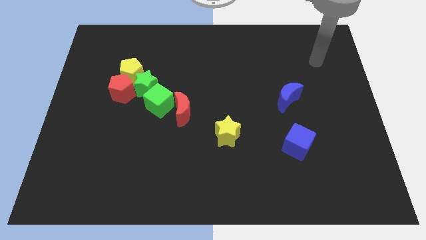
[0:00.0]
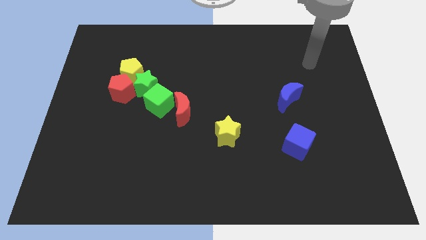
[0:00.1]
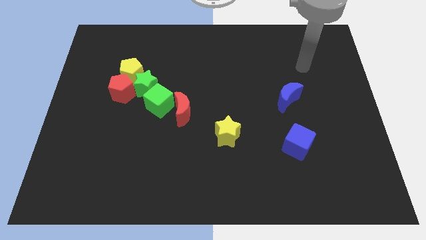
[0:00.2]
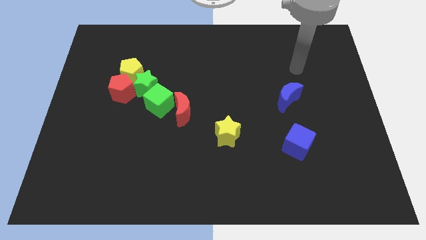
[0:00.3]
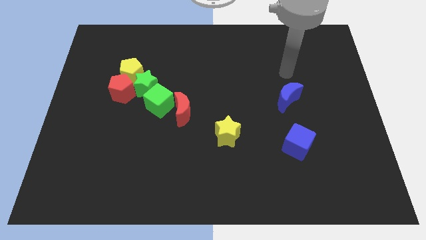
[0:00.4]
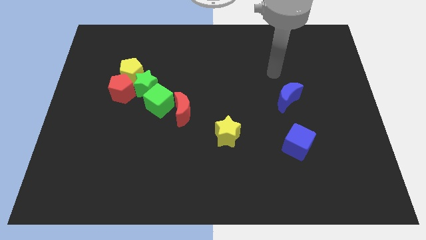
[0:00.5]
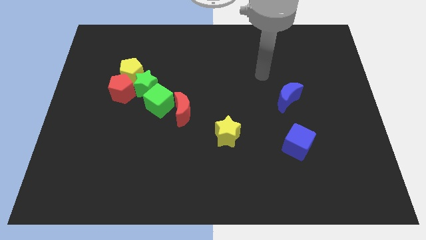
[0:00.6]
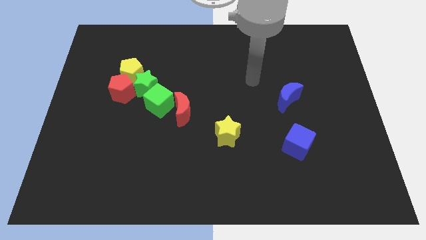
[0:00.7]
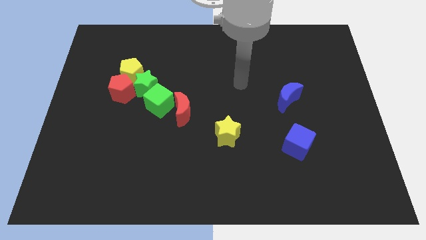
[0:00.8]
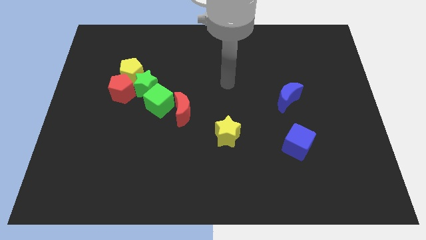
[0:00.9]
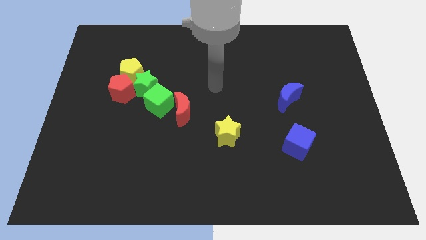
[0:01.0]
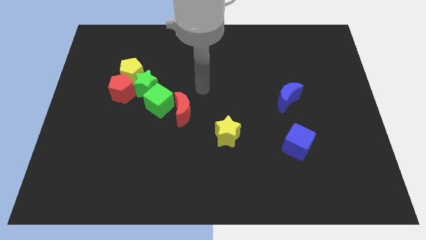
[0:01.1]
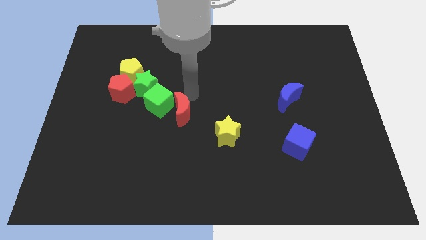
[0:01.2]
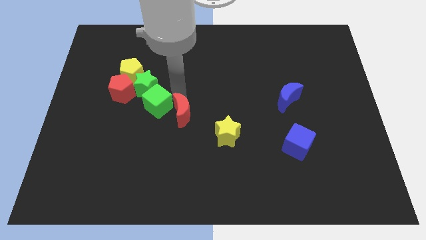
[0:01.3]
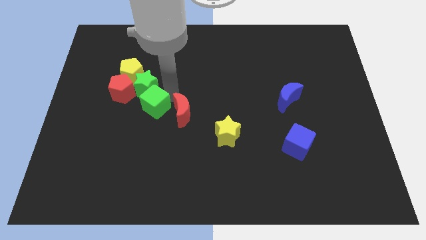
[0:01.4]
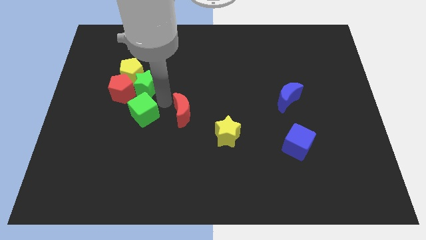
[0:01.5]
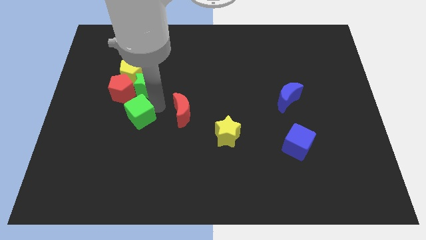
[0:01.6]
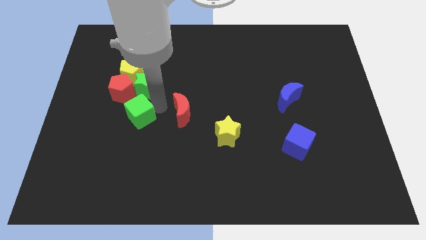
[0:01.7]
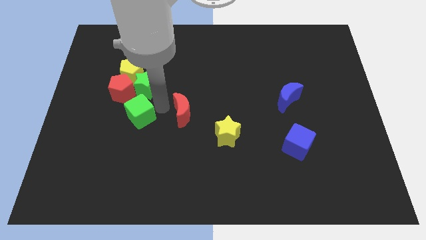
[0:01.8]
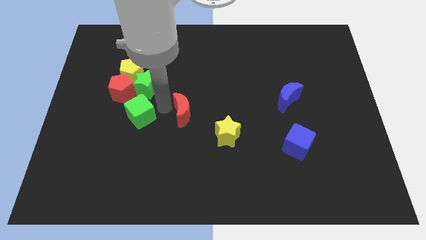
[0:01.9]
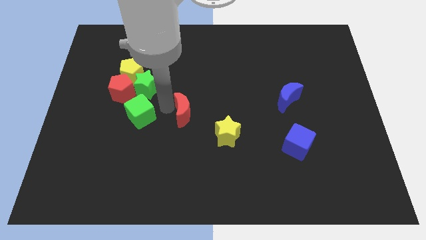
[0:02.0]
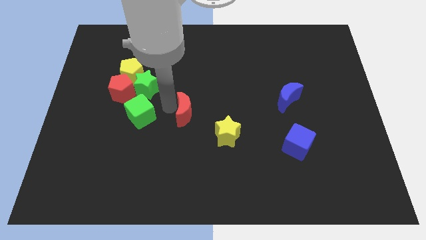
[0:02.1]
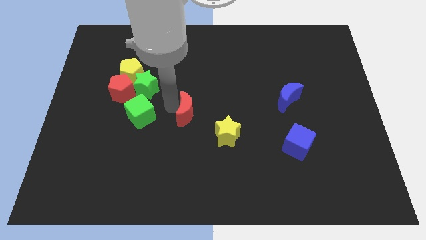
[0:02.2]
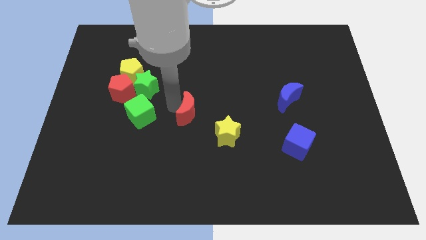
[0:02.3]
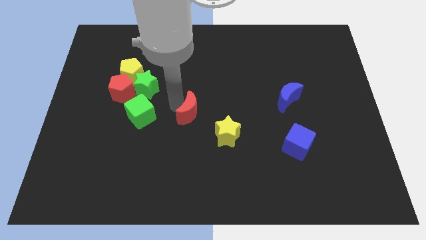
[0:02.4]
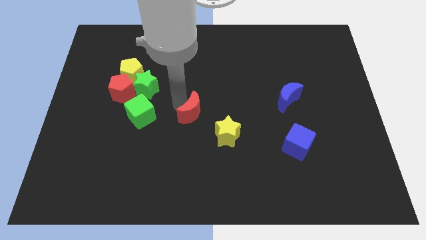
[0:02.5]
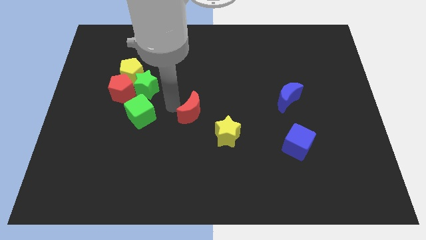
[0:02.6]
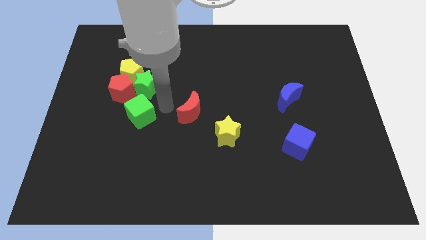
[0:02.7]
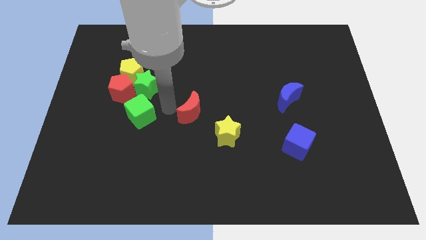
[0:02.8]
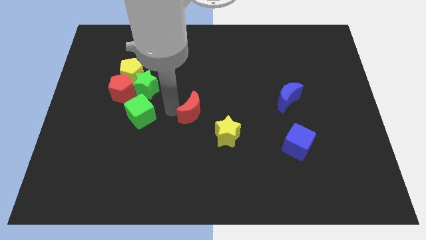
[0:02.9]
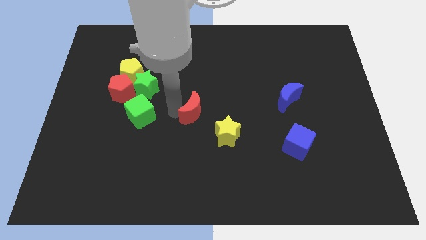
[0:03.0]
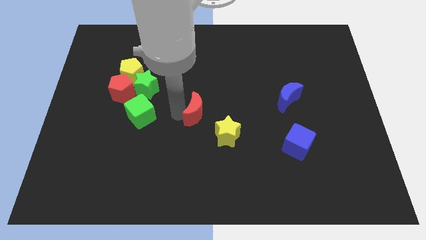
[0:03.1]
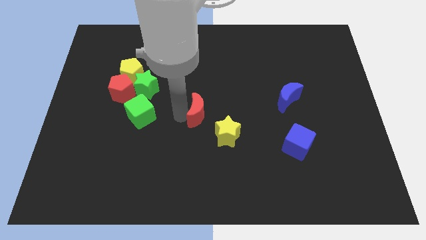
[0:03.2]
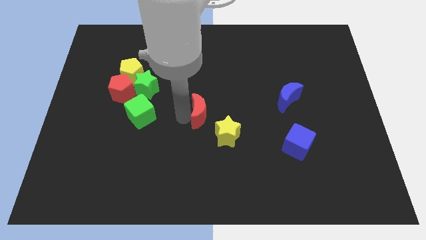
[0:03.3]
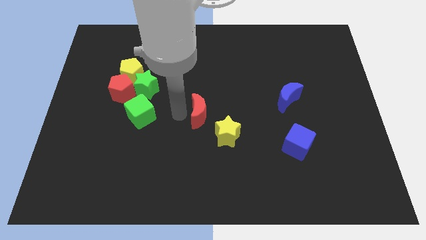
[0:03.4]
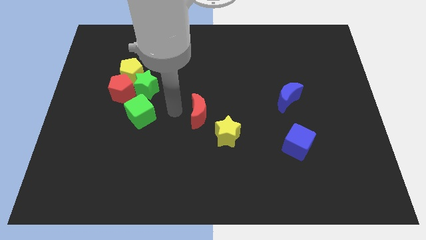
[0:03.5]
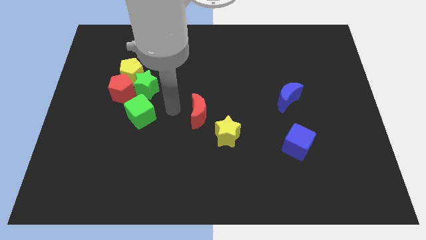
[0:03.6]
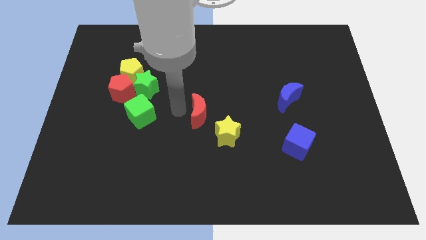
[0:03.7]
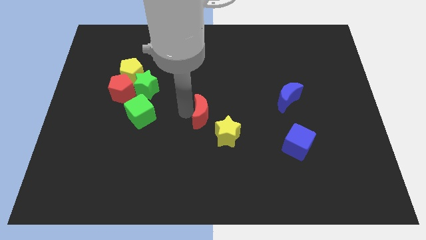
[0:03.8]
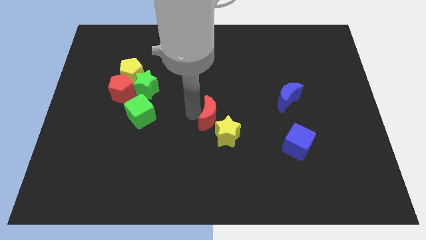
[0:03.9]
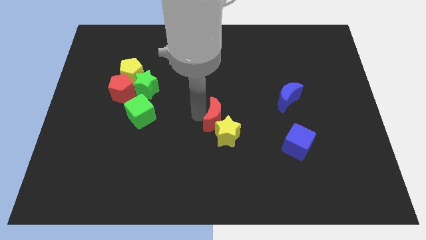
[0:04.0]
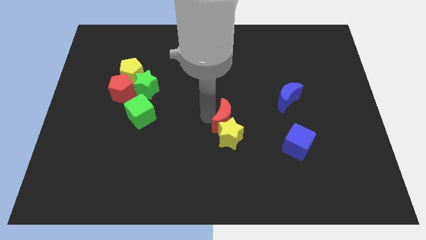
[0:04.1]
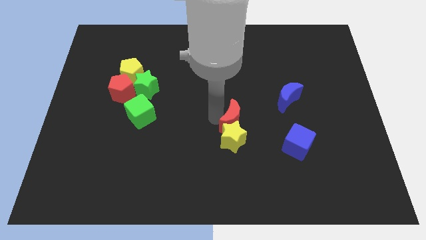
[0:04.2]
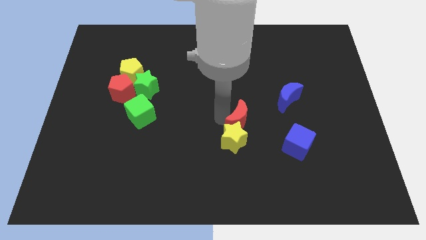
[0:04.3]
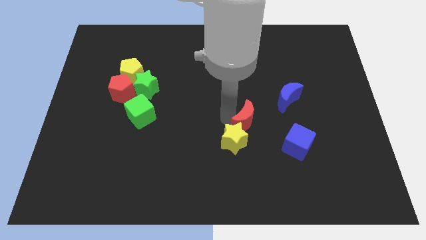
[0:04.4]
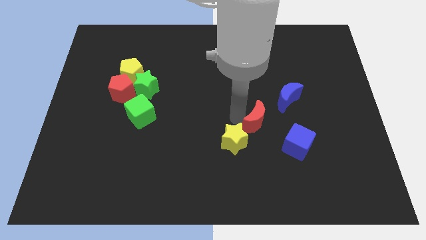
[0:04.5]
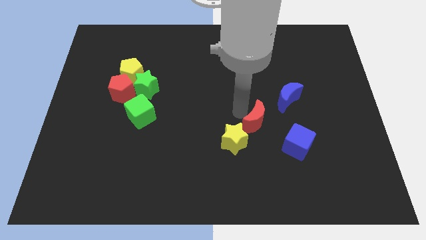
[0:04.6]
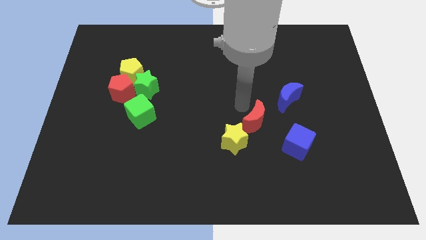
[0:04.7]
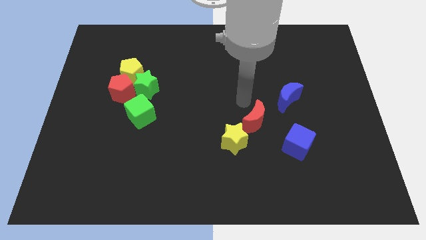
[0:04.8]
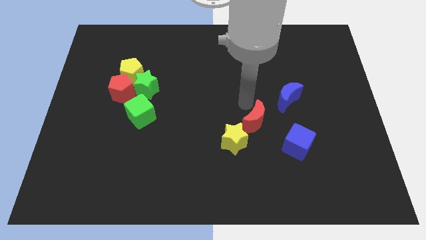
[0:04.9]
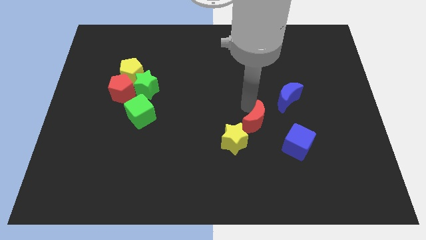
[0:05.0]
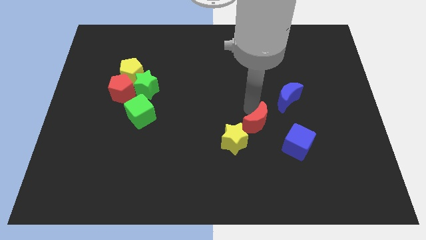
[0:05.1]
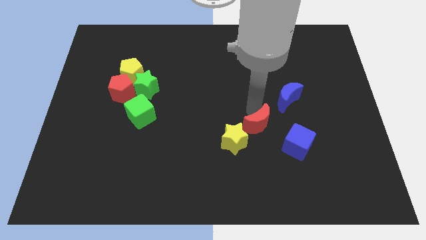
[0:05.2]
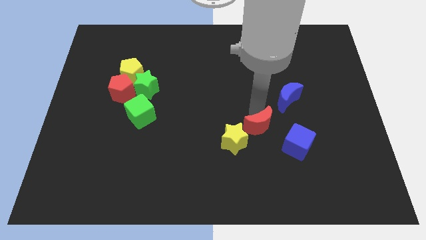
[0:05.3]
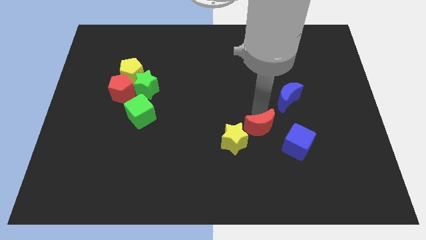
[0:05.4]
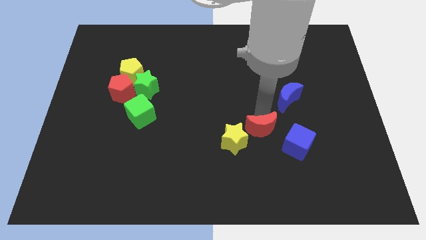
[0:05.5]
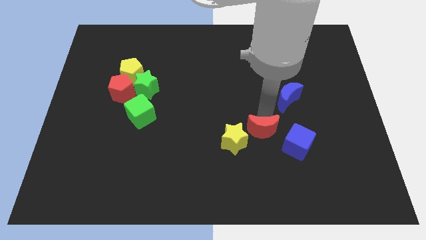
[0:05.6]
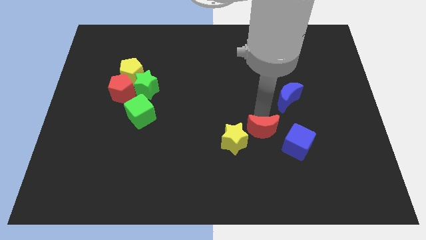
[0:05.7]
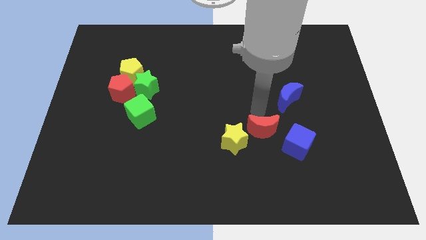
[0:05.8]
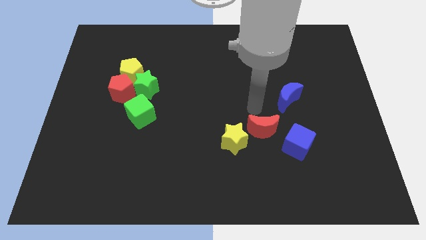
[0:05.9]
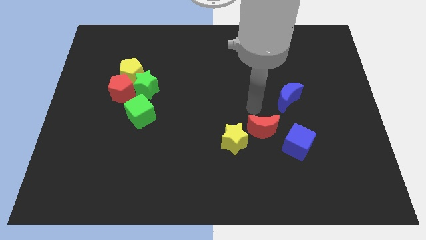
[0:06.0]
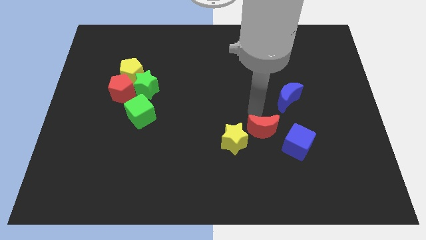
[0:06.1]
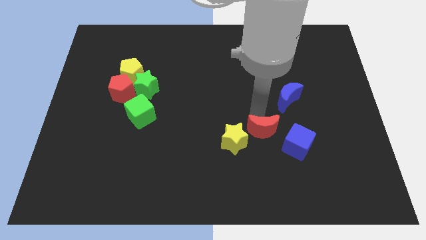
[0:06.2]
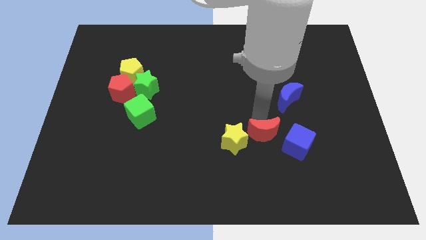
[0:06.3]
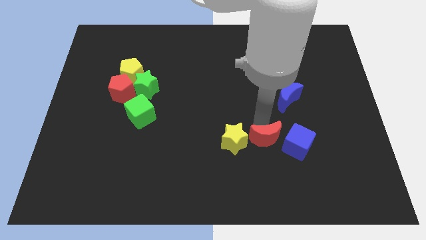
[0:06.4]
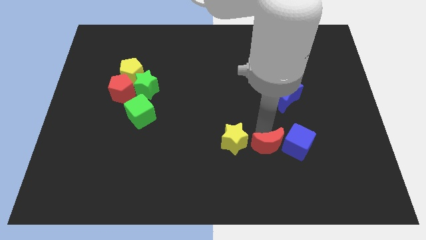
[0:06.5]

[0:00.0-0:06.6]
slide the red moon diagonally down and to the left of the blue cube

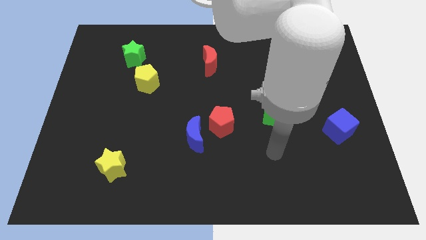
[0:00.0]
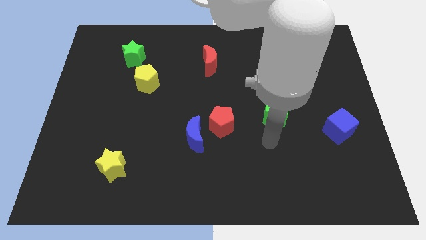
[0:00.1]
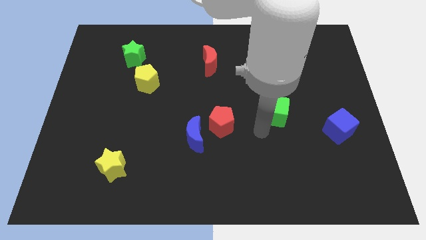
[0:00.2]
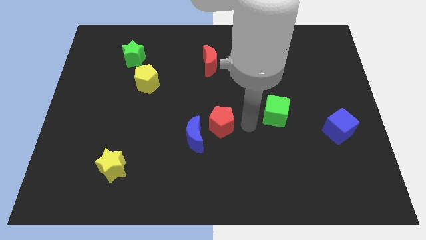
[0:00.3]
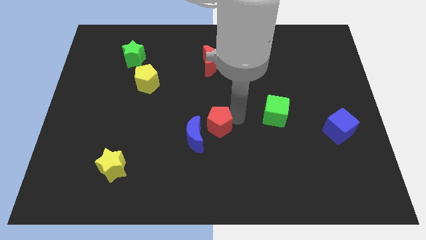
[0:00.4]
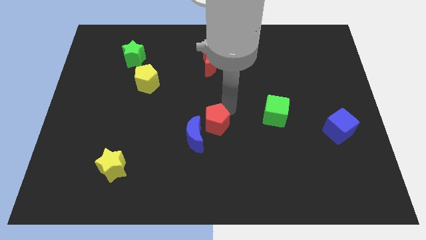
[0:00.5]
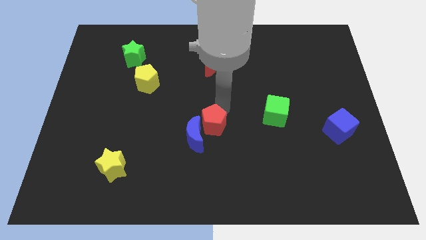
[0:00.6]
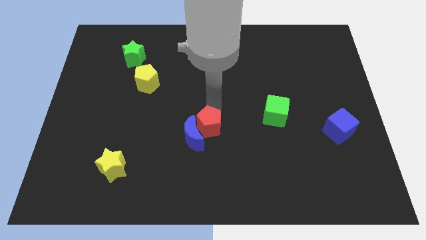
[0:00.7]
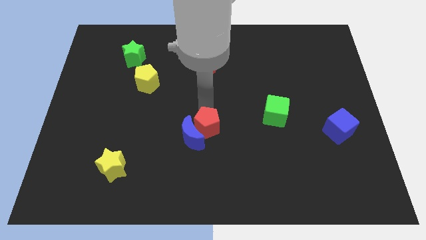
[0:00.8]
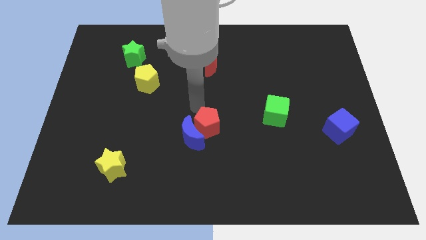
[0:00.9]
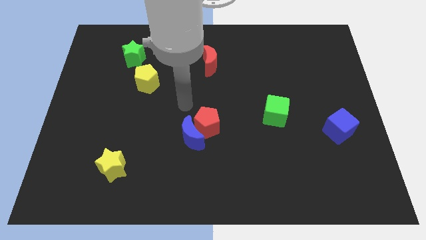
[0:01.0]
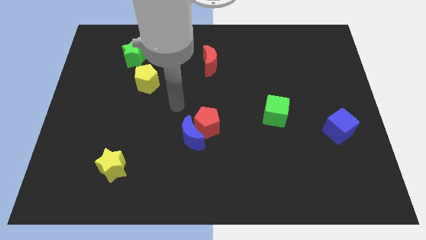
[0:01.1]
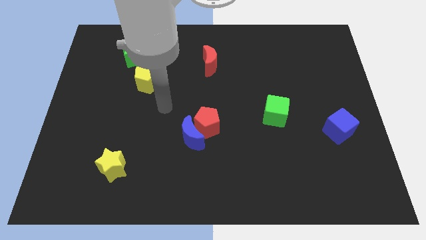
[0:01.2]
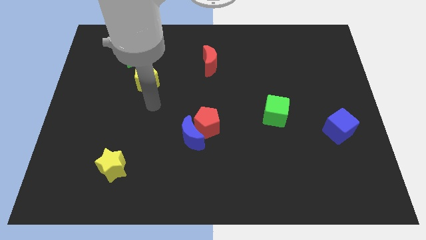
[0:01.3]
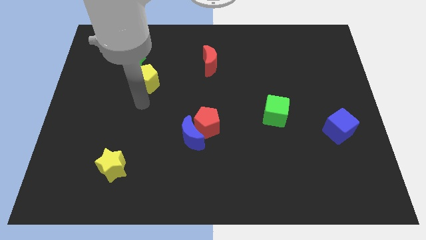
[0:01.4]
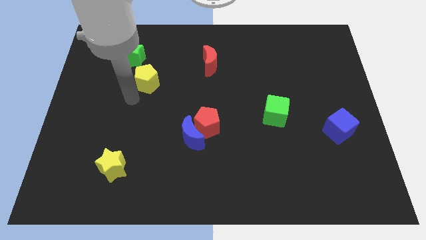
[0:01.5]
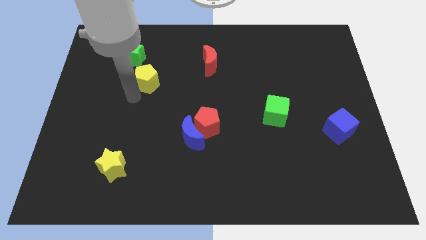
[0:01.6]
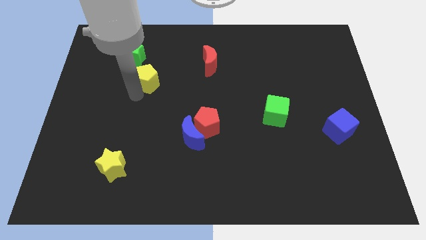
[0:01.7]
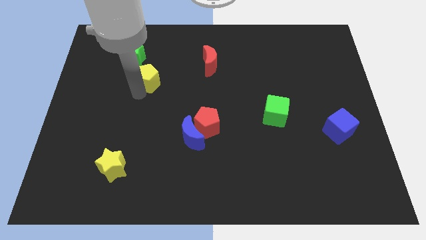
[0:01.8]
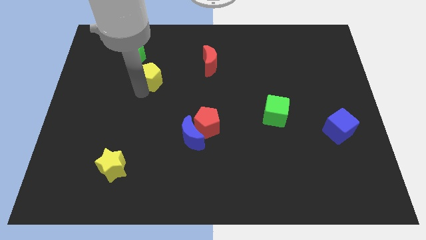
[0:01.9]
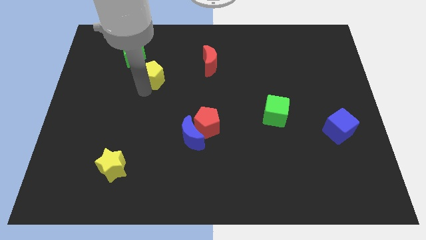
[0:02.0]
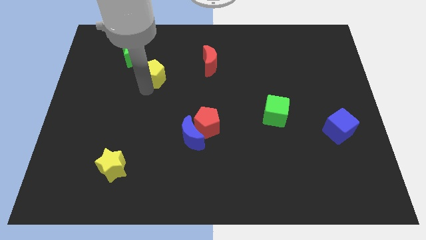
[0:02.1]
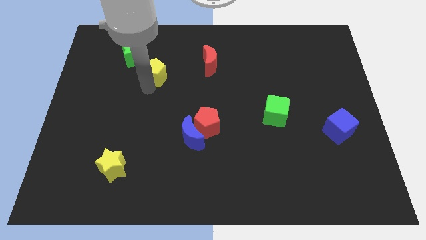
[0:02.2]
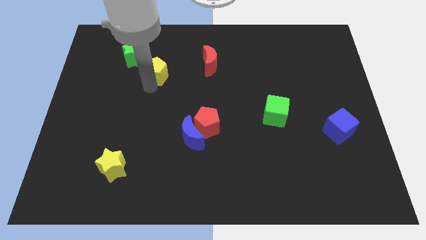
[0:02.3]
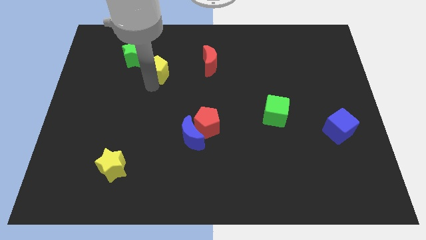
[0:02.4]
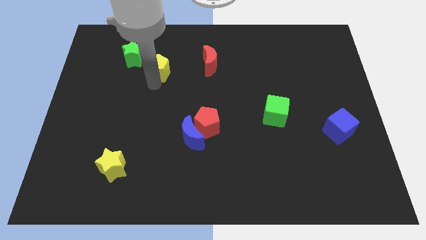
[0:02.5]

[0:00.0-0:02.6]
slide the yellow pentagon to the right side of the green star
